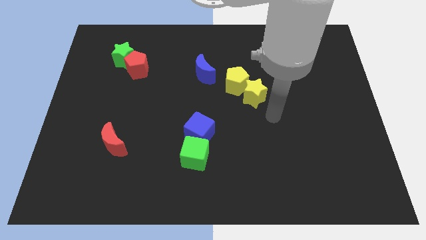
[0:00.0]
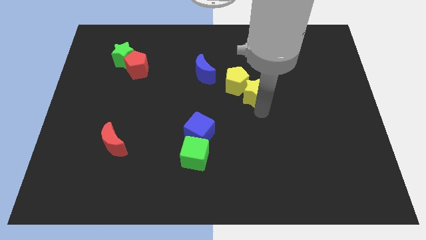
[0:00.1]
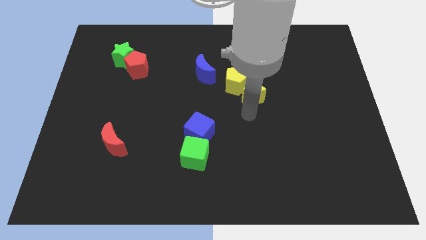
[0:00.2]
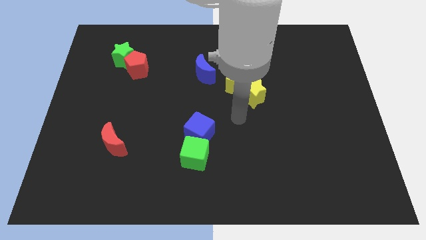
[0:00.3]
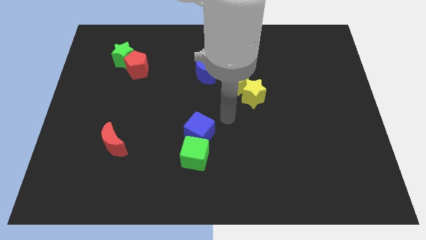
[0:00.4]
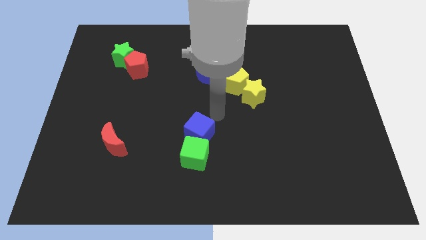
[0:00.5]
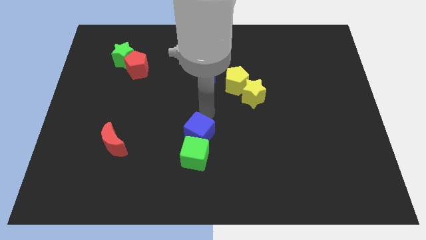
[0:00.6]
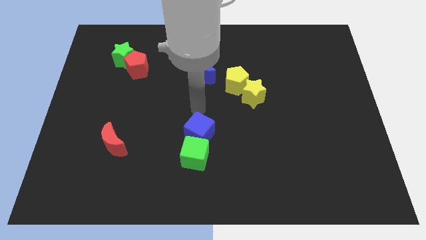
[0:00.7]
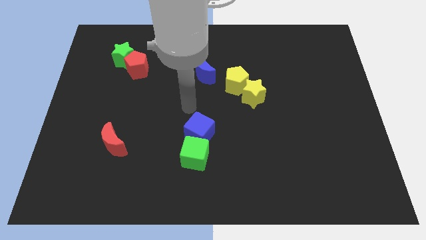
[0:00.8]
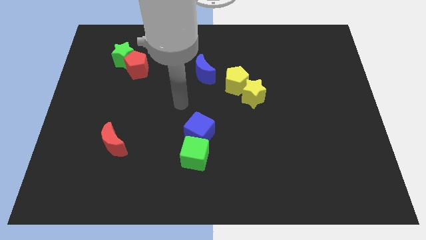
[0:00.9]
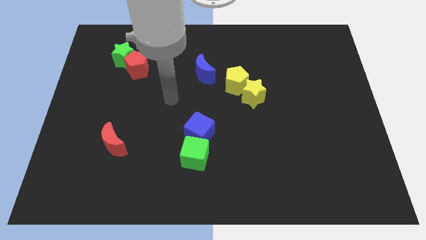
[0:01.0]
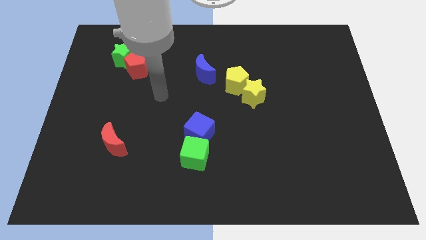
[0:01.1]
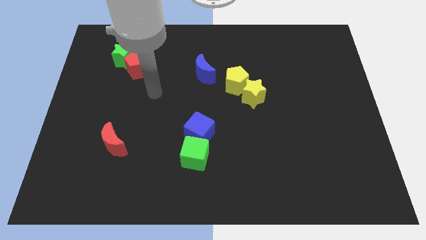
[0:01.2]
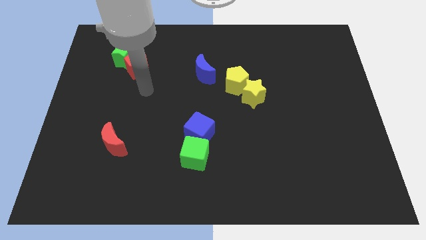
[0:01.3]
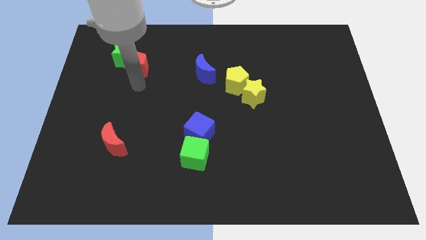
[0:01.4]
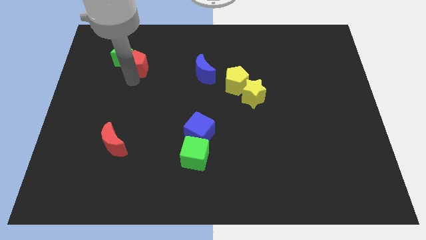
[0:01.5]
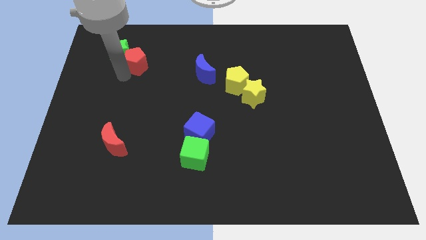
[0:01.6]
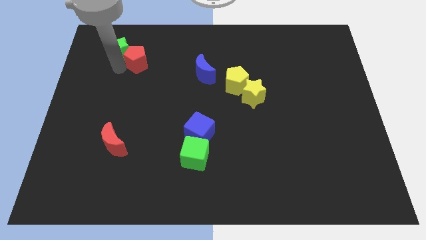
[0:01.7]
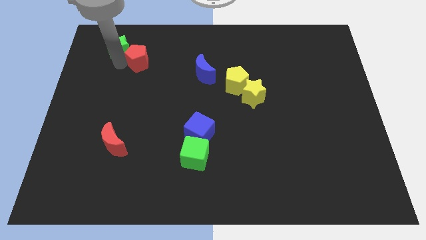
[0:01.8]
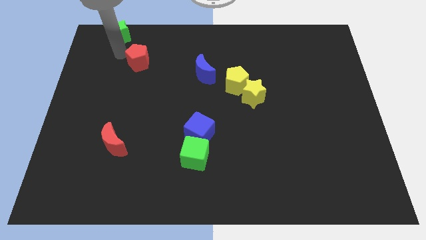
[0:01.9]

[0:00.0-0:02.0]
move the red pentagon away from the green star

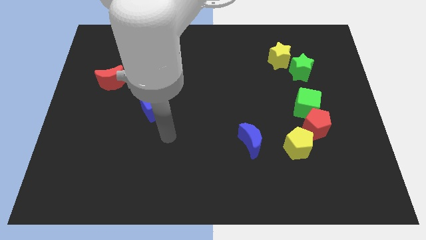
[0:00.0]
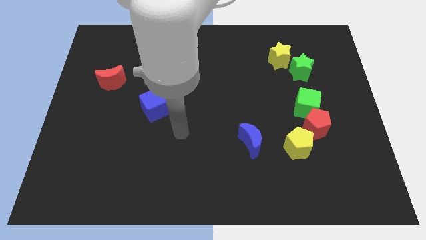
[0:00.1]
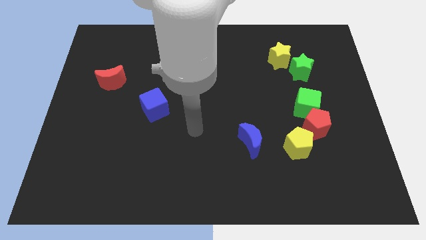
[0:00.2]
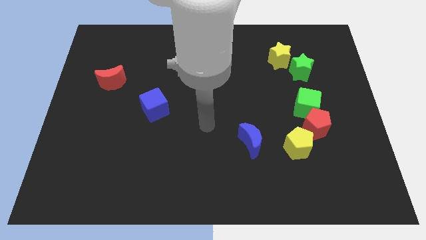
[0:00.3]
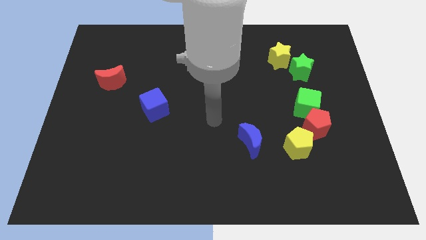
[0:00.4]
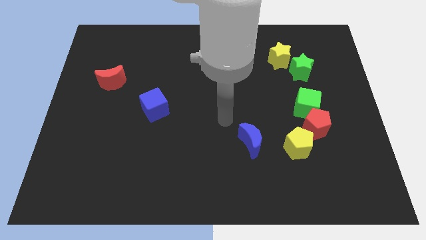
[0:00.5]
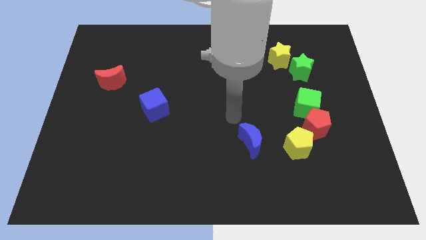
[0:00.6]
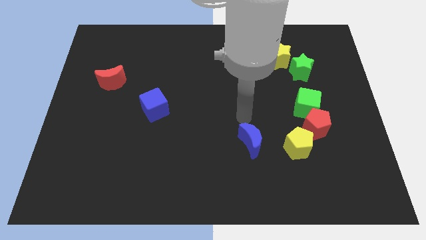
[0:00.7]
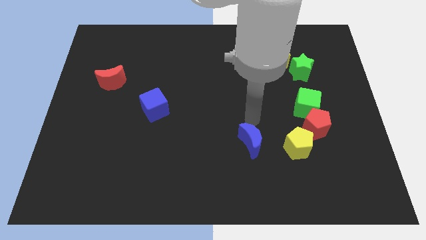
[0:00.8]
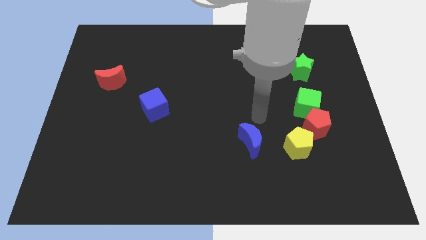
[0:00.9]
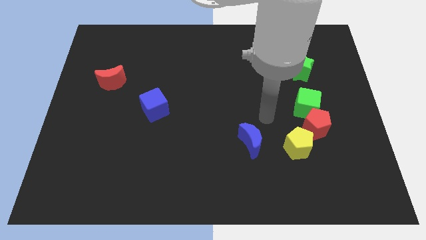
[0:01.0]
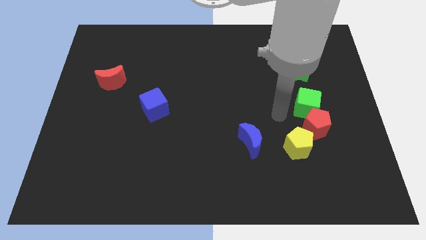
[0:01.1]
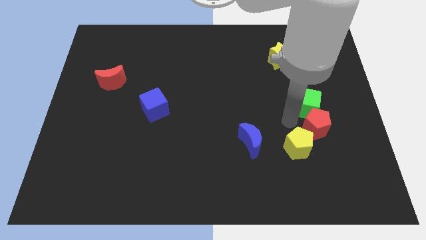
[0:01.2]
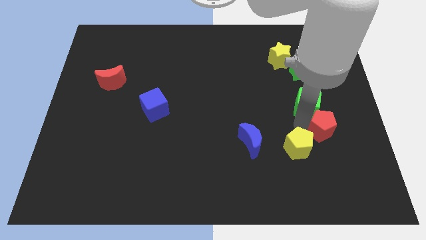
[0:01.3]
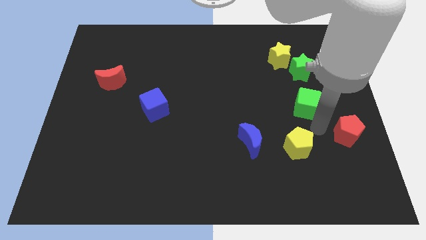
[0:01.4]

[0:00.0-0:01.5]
separate the green cube from the red pentagon

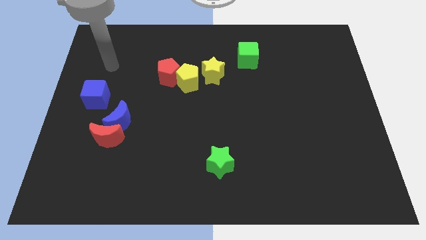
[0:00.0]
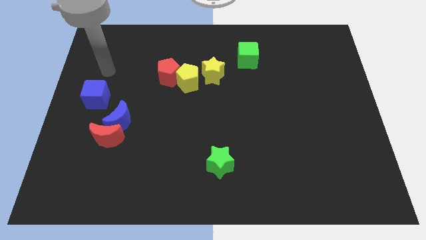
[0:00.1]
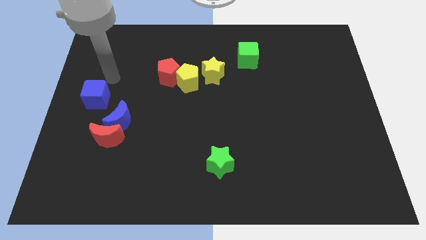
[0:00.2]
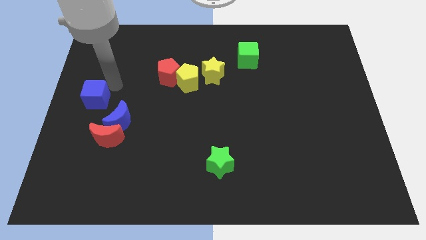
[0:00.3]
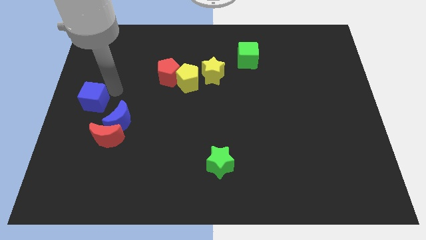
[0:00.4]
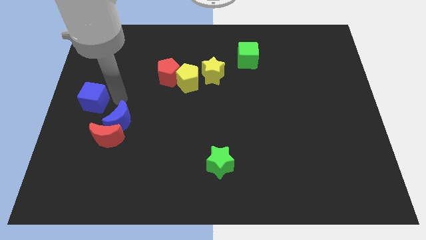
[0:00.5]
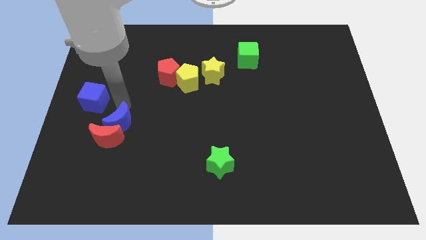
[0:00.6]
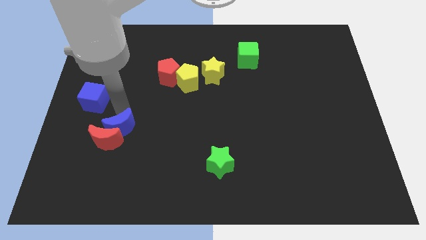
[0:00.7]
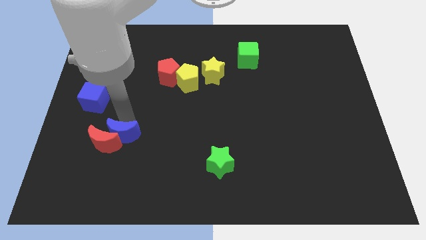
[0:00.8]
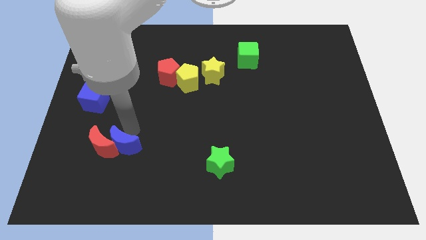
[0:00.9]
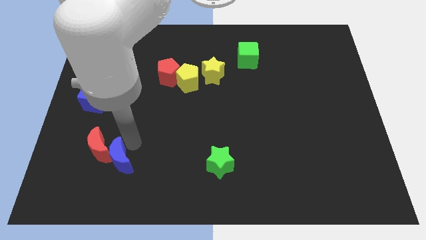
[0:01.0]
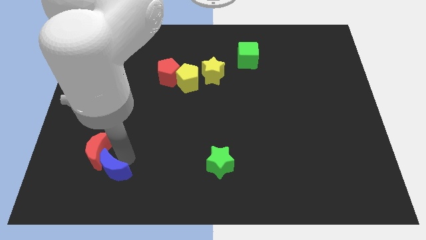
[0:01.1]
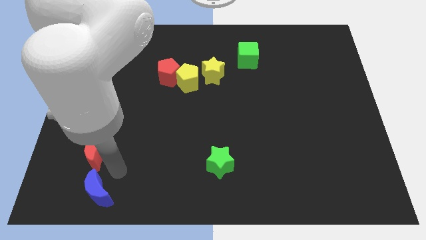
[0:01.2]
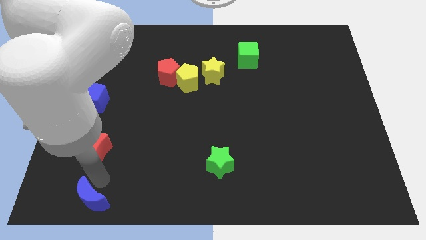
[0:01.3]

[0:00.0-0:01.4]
separate the red moon from the blue moon

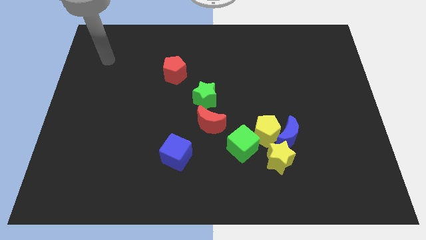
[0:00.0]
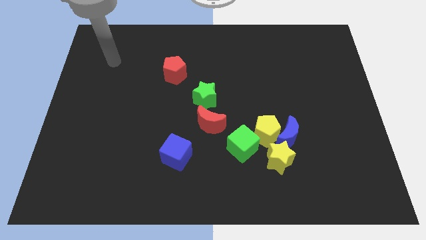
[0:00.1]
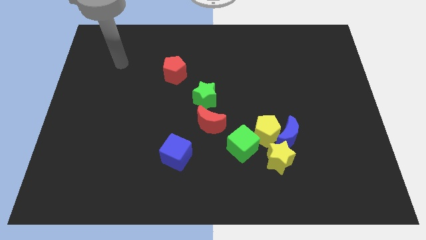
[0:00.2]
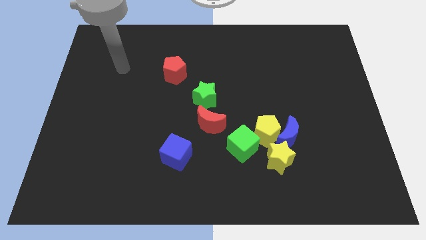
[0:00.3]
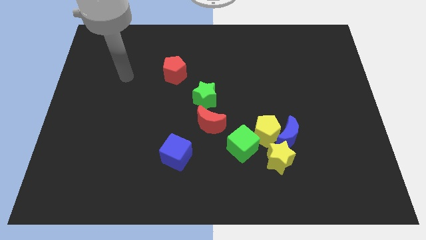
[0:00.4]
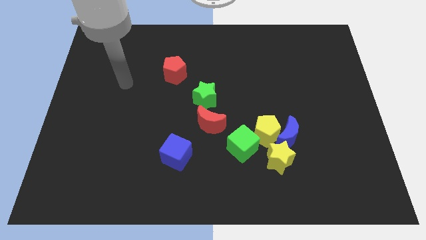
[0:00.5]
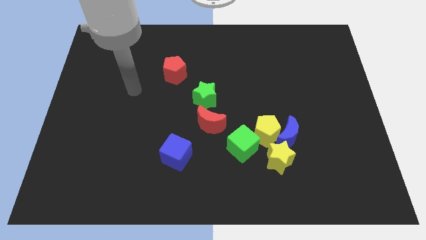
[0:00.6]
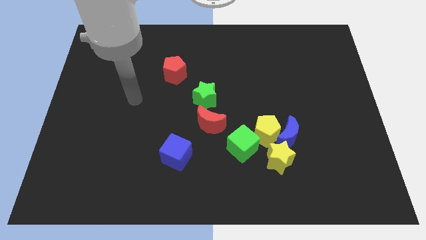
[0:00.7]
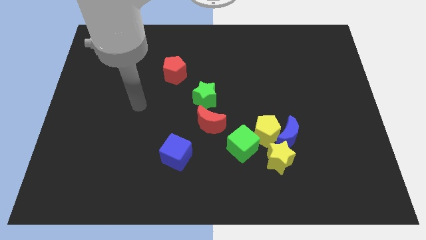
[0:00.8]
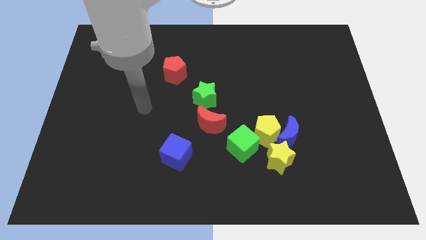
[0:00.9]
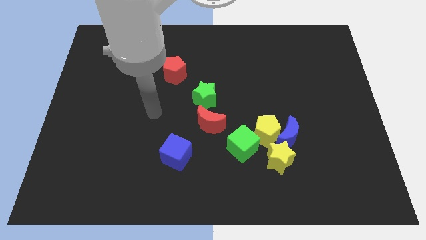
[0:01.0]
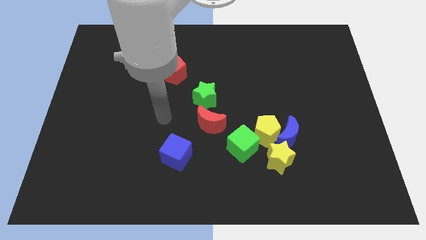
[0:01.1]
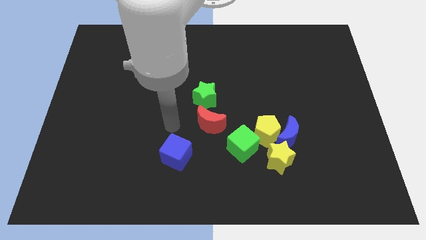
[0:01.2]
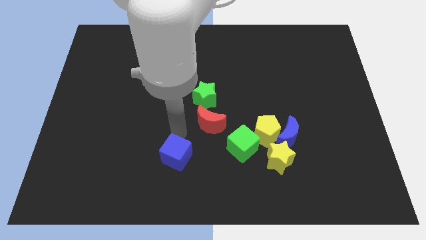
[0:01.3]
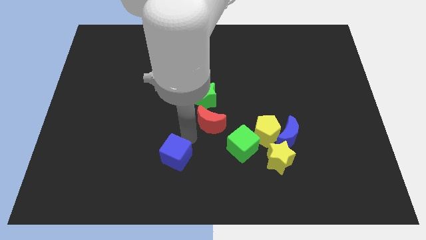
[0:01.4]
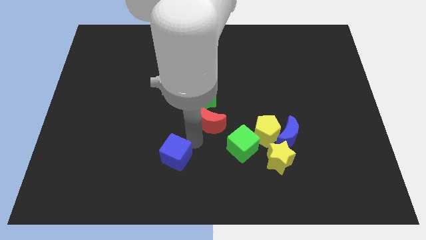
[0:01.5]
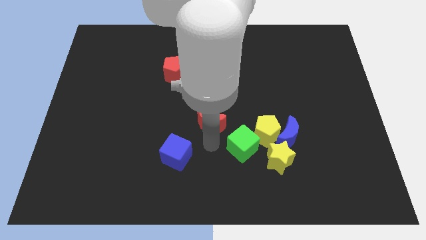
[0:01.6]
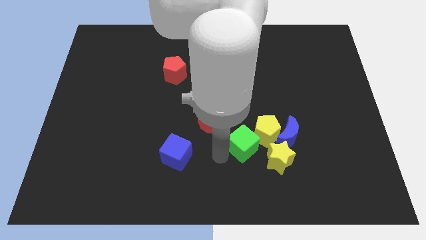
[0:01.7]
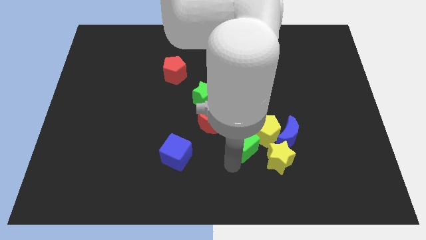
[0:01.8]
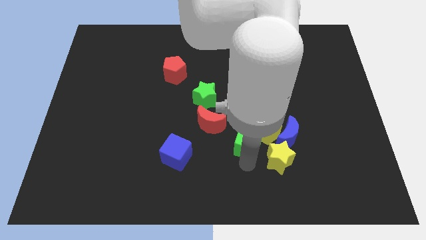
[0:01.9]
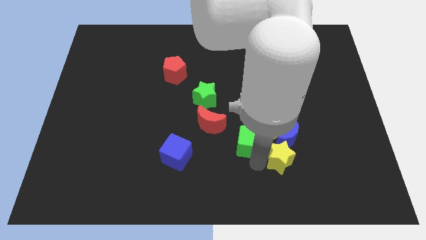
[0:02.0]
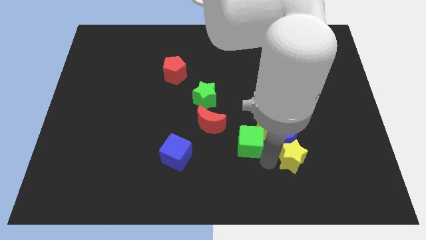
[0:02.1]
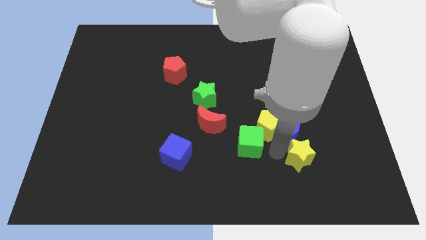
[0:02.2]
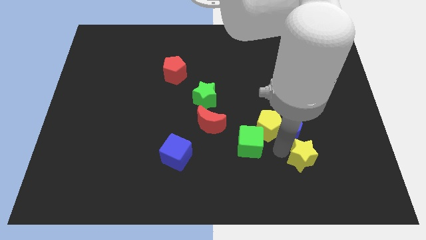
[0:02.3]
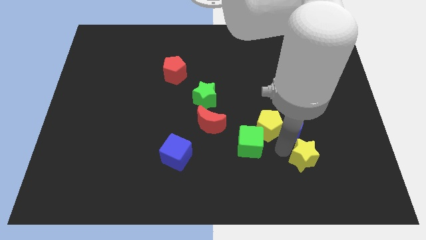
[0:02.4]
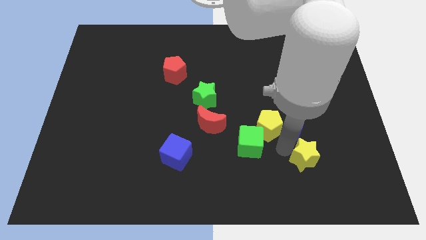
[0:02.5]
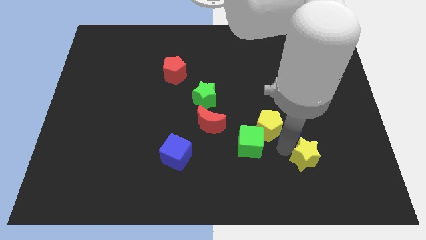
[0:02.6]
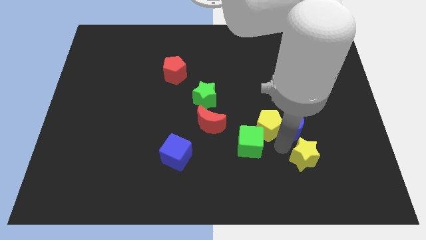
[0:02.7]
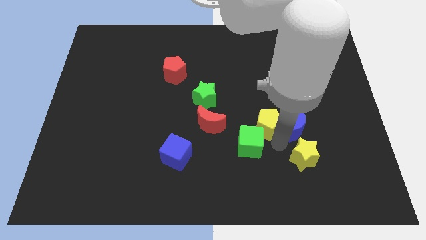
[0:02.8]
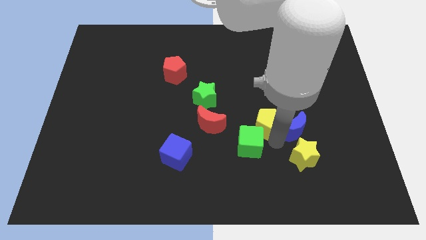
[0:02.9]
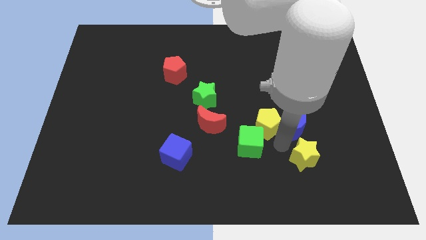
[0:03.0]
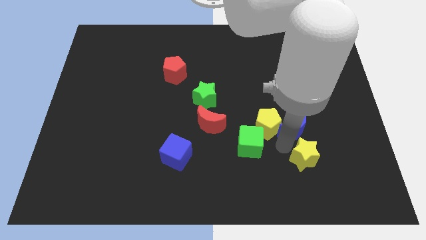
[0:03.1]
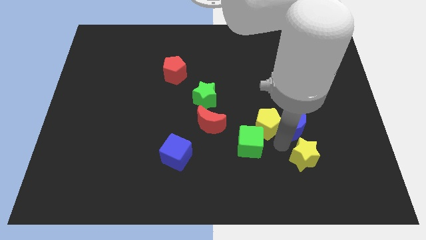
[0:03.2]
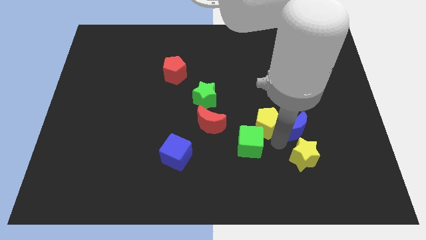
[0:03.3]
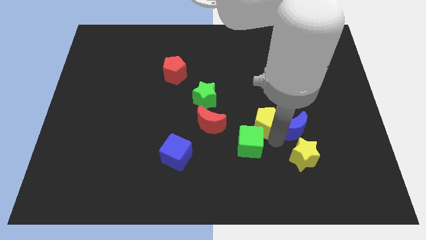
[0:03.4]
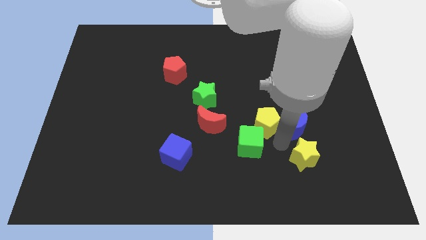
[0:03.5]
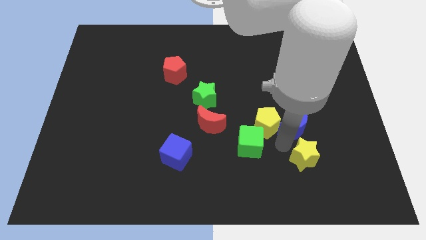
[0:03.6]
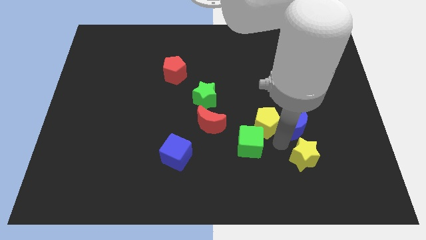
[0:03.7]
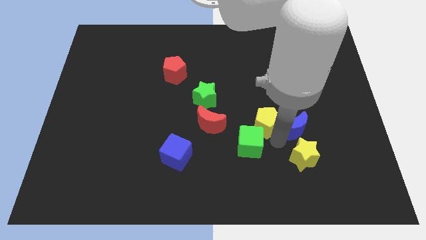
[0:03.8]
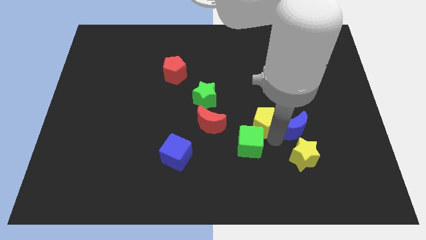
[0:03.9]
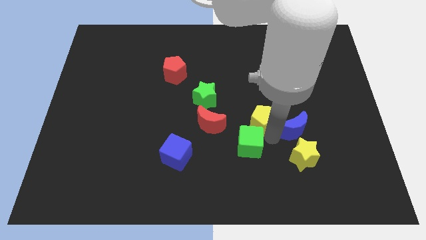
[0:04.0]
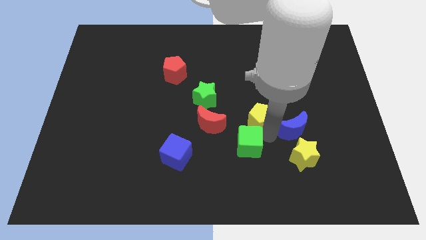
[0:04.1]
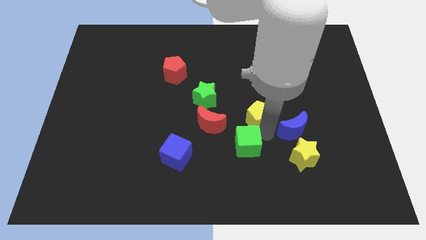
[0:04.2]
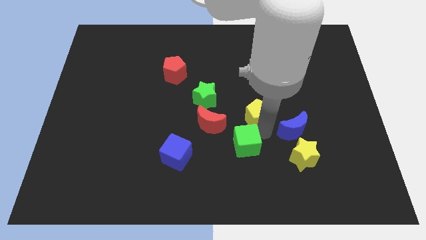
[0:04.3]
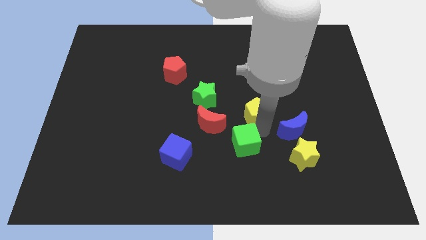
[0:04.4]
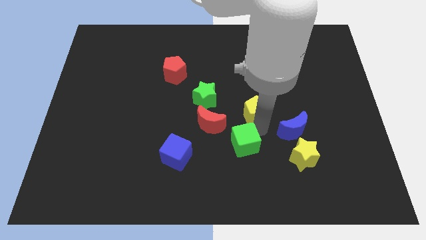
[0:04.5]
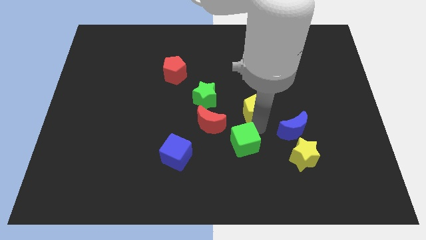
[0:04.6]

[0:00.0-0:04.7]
pull the yellow pentagon apart from the group of blocks

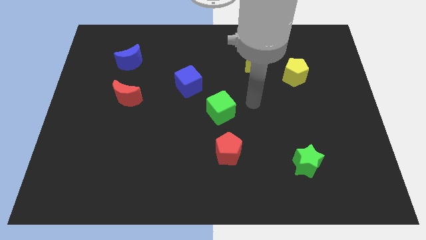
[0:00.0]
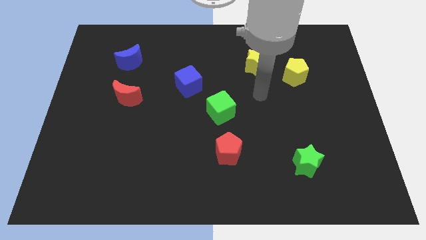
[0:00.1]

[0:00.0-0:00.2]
pull the yellow star apart from the yellow pentagon
